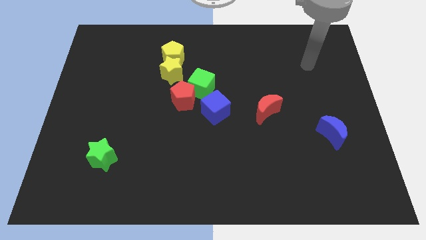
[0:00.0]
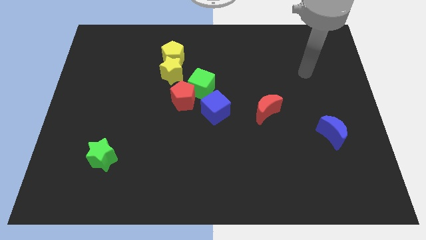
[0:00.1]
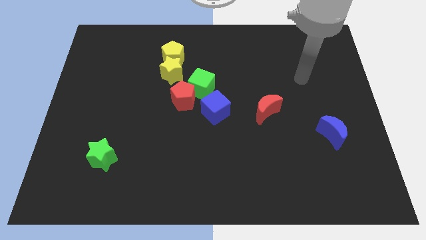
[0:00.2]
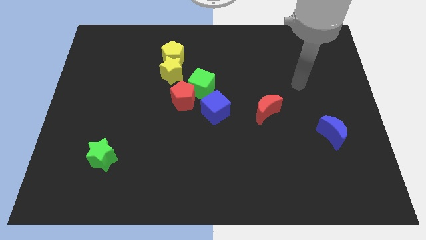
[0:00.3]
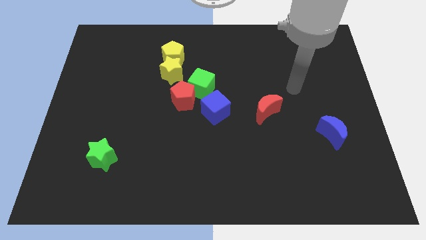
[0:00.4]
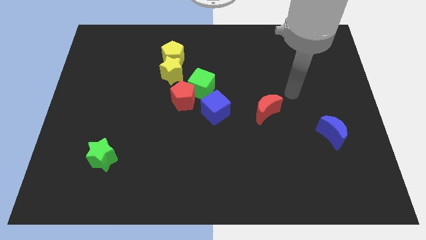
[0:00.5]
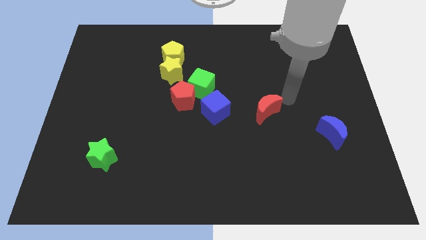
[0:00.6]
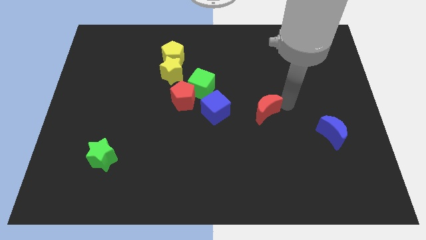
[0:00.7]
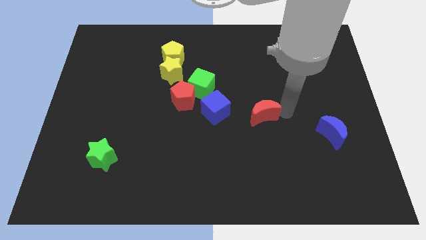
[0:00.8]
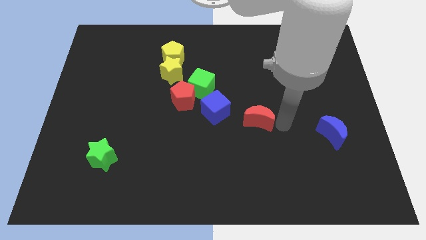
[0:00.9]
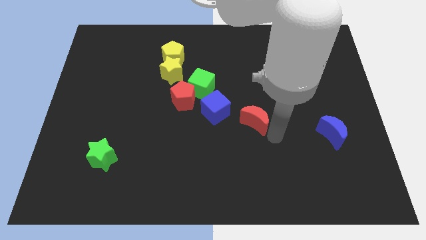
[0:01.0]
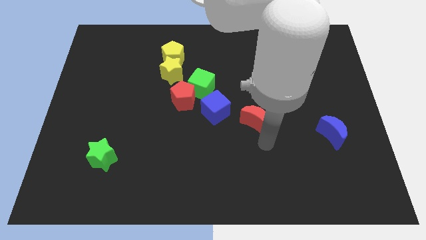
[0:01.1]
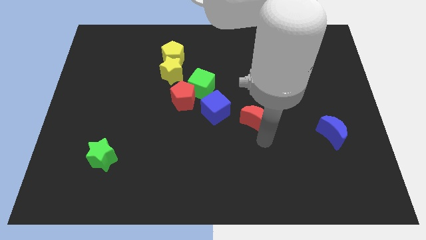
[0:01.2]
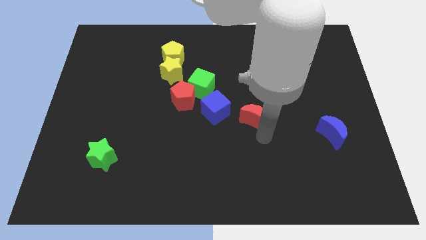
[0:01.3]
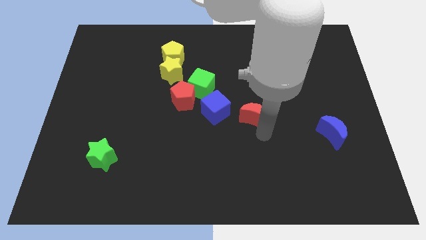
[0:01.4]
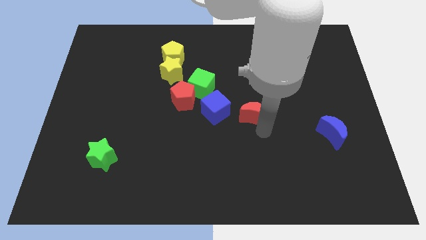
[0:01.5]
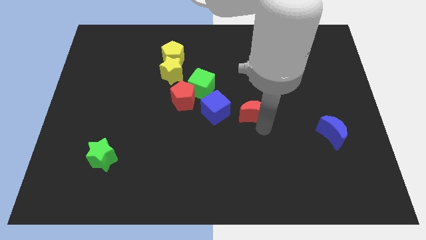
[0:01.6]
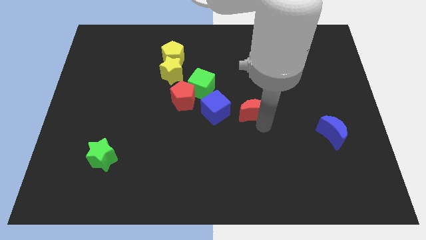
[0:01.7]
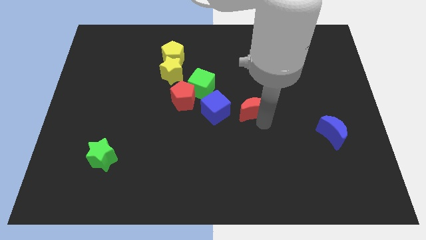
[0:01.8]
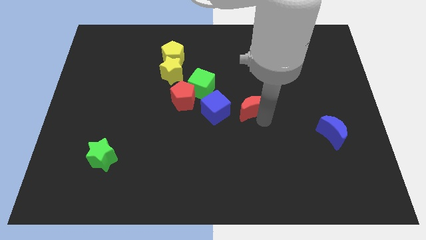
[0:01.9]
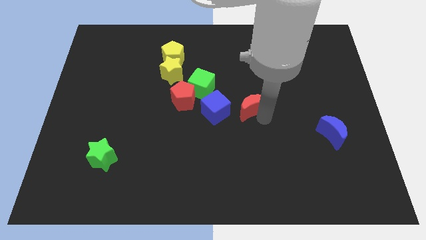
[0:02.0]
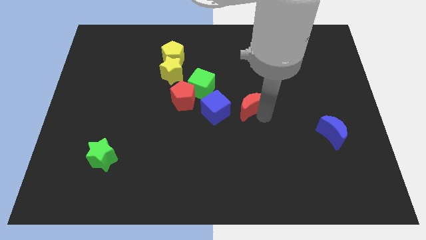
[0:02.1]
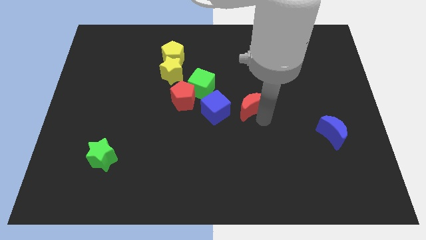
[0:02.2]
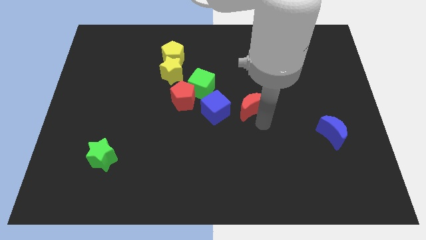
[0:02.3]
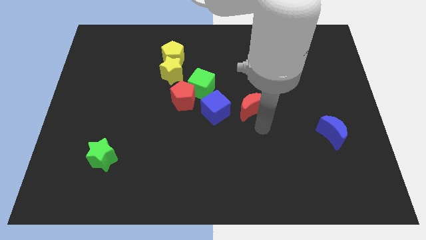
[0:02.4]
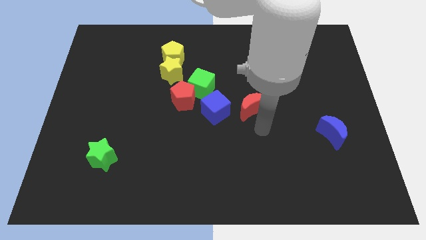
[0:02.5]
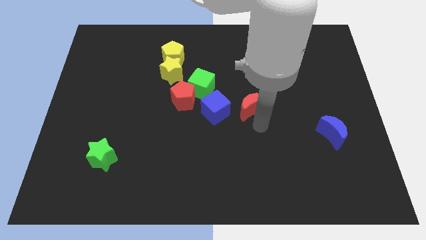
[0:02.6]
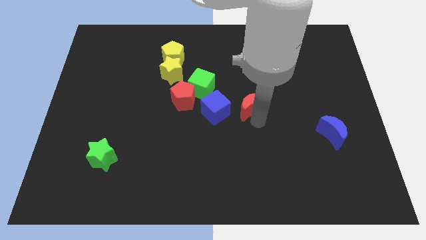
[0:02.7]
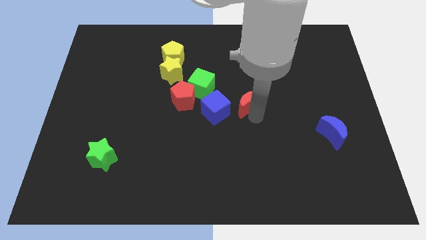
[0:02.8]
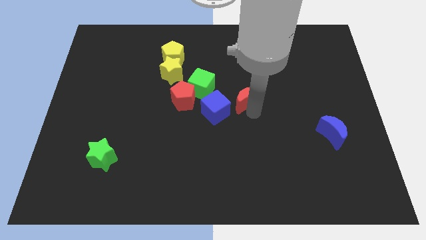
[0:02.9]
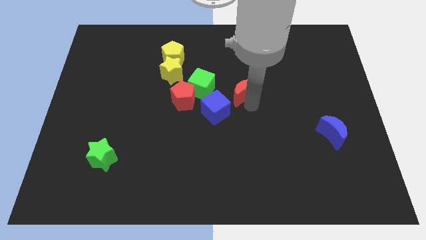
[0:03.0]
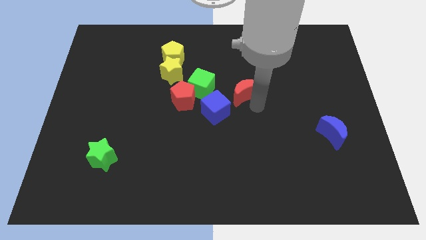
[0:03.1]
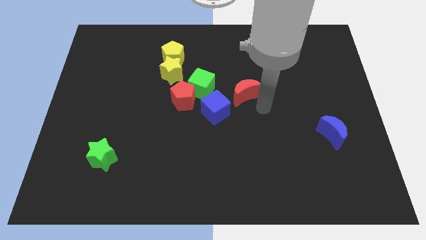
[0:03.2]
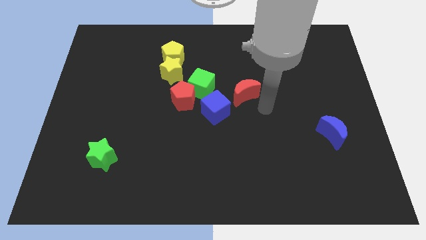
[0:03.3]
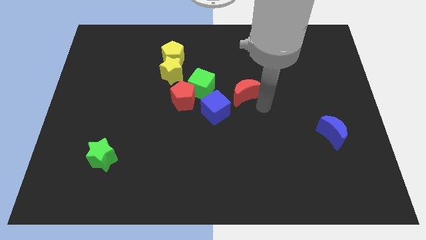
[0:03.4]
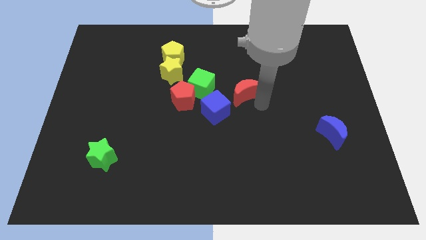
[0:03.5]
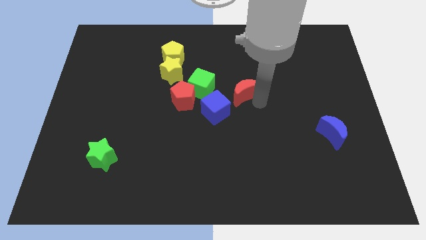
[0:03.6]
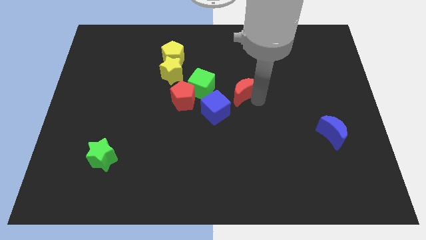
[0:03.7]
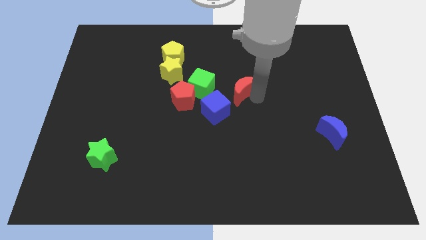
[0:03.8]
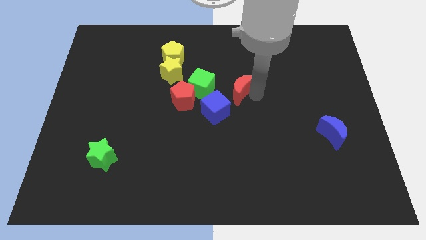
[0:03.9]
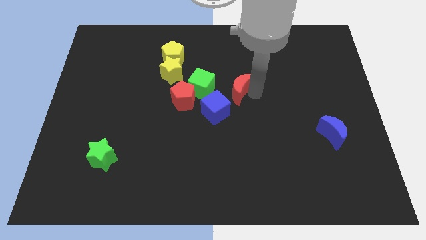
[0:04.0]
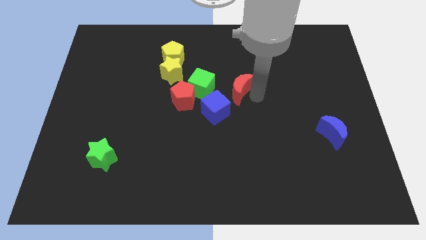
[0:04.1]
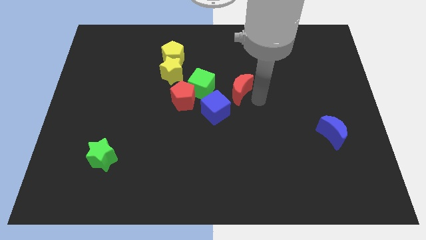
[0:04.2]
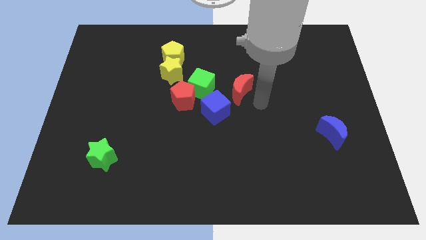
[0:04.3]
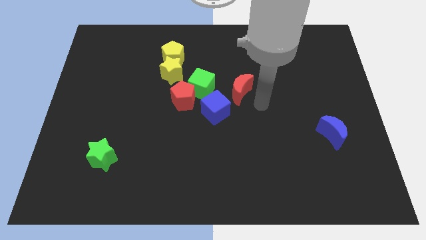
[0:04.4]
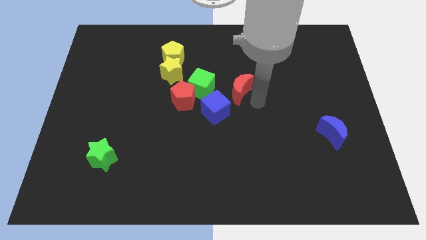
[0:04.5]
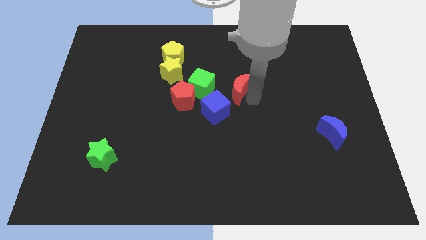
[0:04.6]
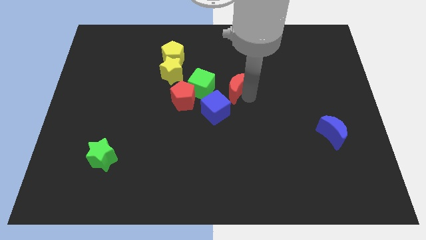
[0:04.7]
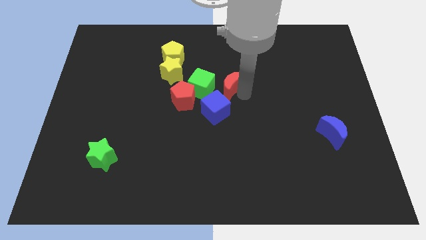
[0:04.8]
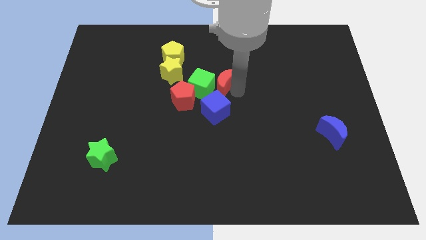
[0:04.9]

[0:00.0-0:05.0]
put the red moon to the right side of the yellow star

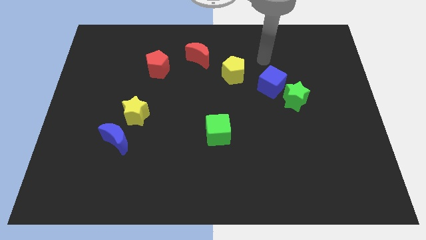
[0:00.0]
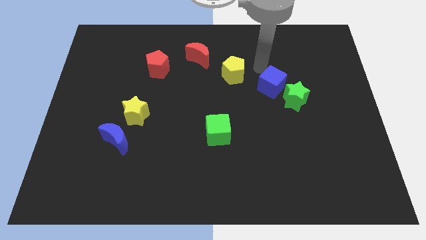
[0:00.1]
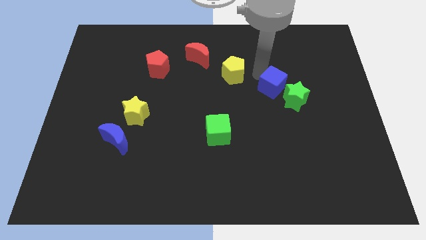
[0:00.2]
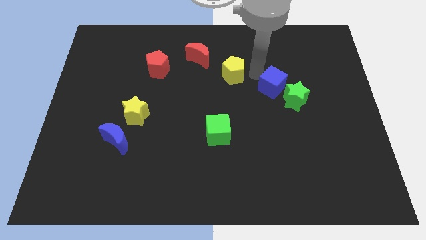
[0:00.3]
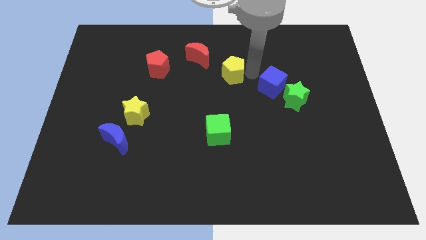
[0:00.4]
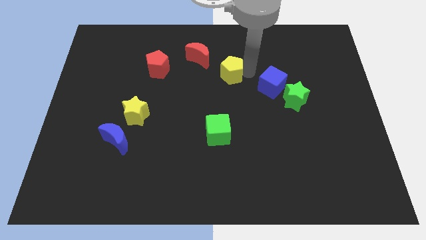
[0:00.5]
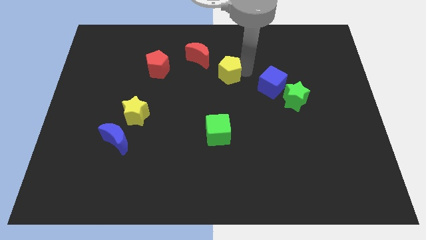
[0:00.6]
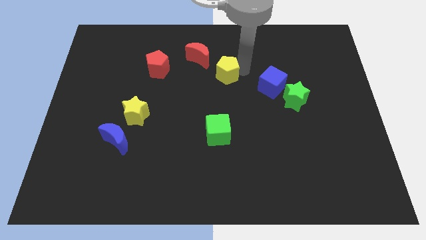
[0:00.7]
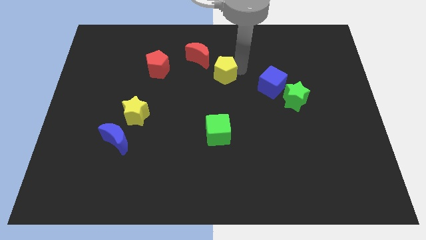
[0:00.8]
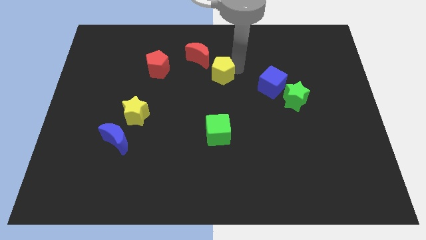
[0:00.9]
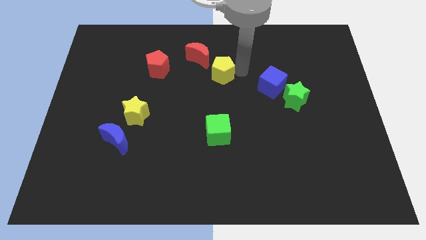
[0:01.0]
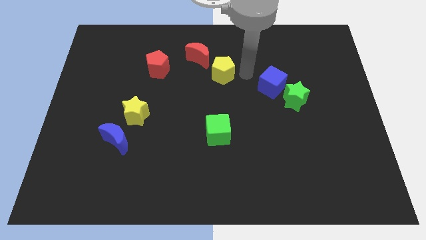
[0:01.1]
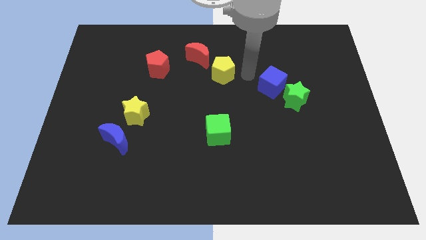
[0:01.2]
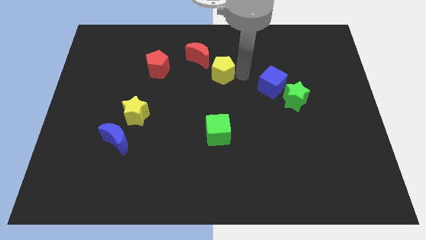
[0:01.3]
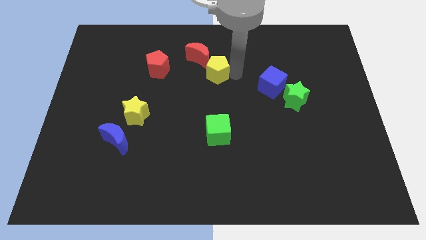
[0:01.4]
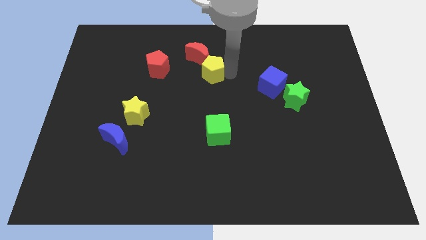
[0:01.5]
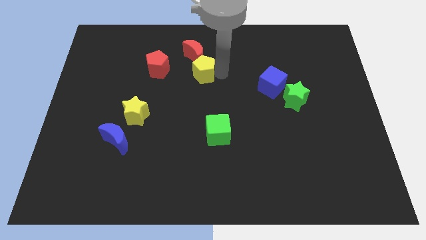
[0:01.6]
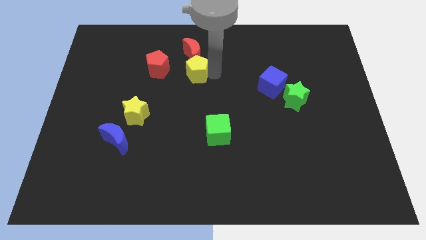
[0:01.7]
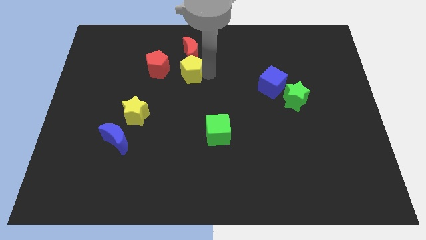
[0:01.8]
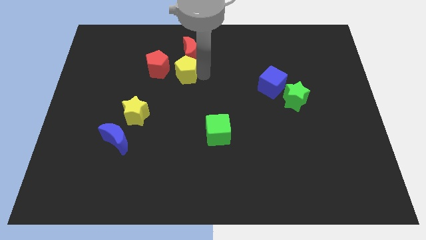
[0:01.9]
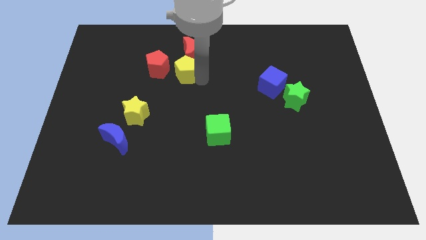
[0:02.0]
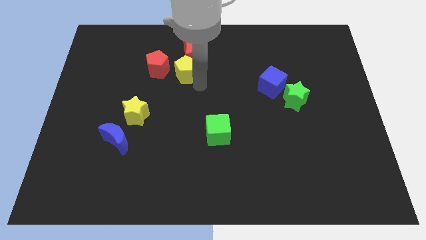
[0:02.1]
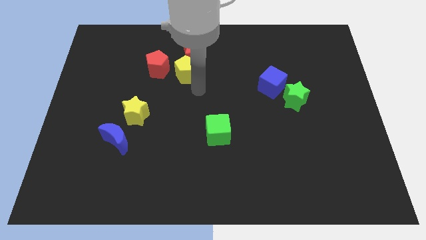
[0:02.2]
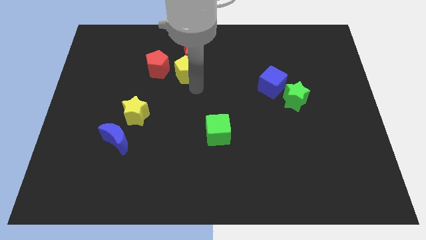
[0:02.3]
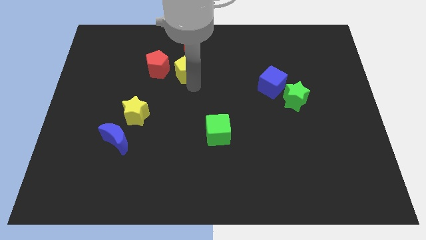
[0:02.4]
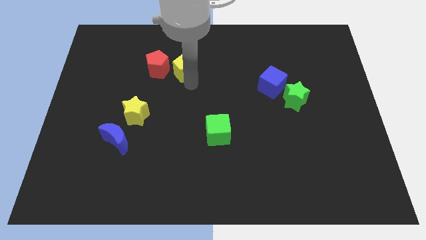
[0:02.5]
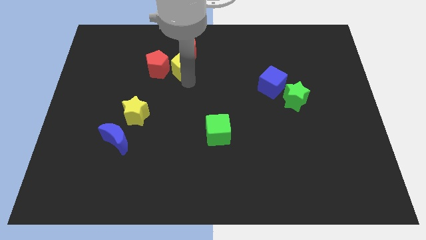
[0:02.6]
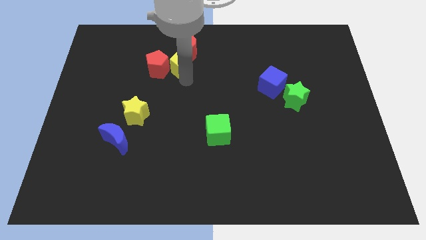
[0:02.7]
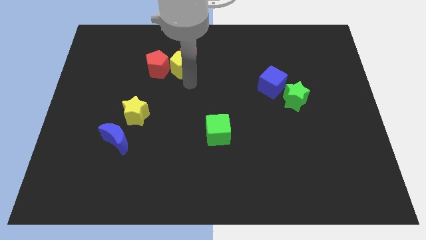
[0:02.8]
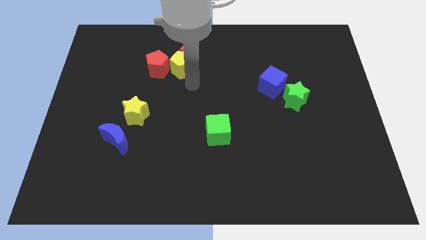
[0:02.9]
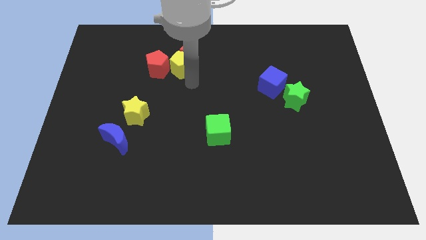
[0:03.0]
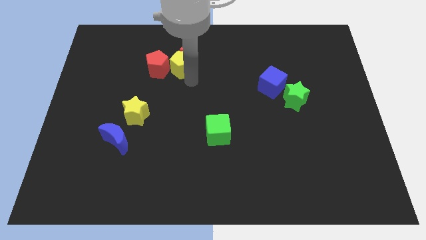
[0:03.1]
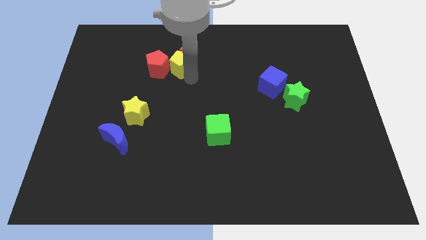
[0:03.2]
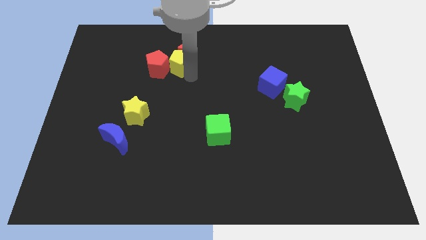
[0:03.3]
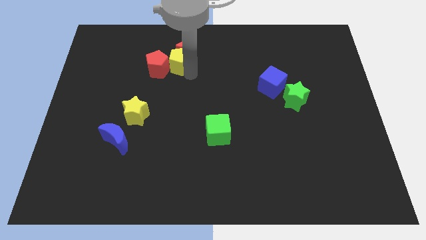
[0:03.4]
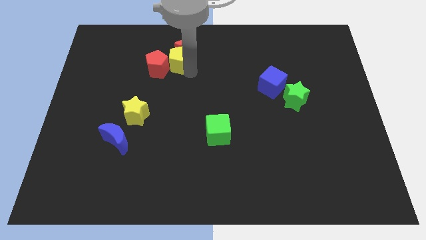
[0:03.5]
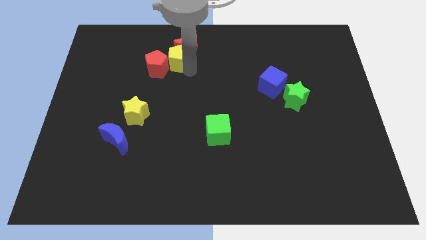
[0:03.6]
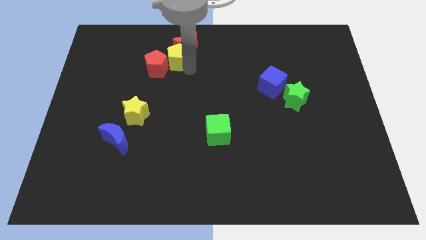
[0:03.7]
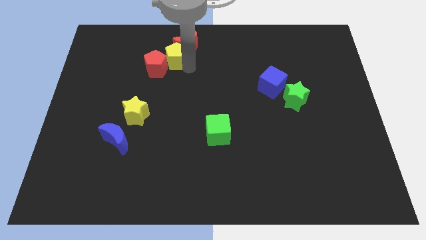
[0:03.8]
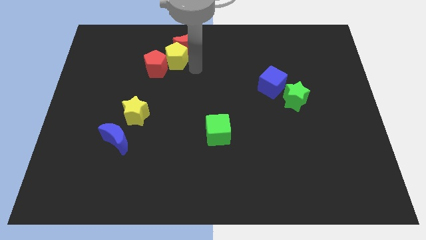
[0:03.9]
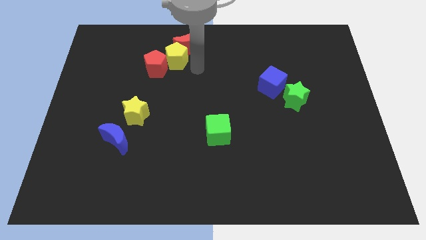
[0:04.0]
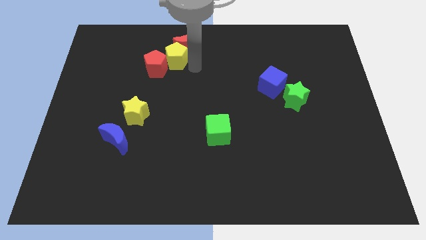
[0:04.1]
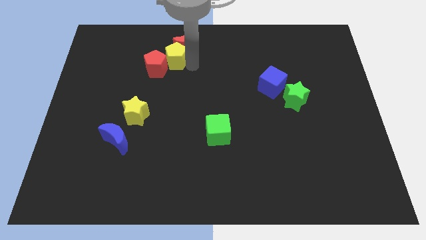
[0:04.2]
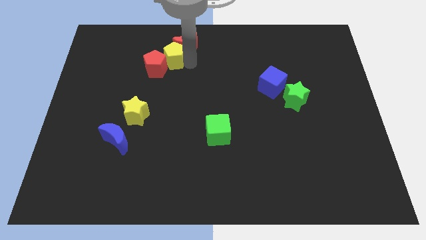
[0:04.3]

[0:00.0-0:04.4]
put the yellow pentagon to the left side of the red moon
